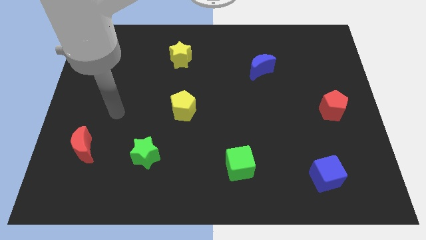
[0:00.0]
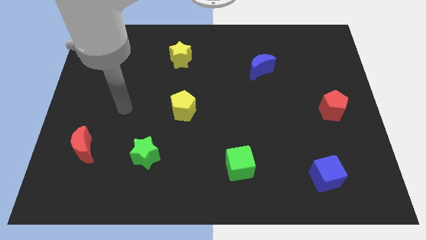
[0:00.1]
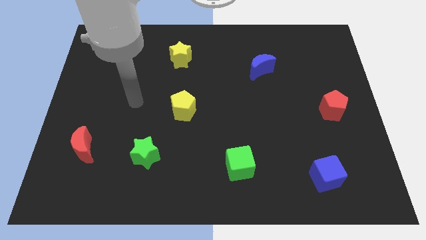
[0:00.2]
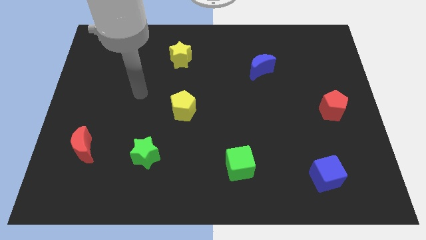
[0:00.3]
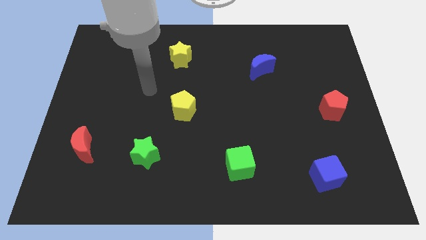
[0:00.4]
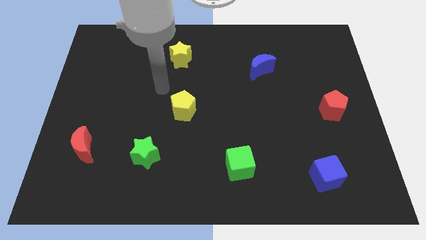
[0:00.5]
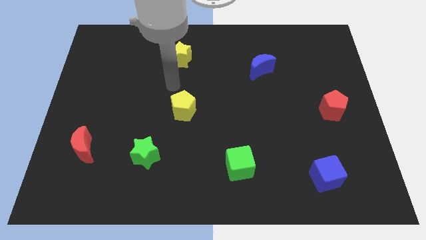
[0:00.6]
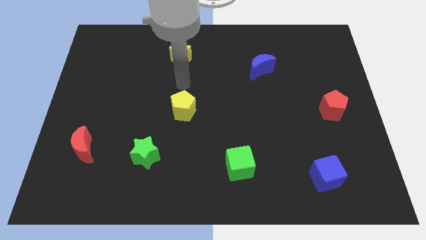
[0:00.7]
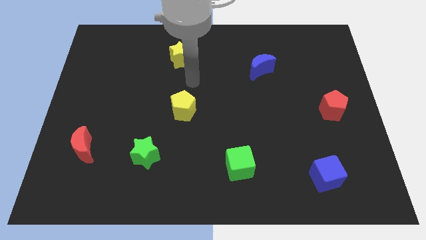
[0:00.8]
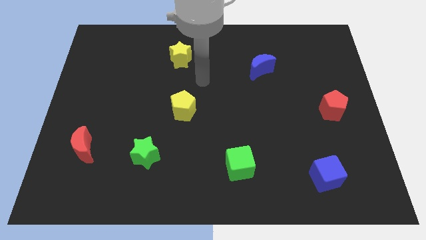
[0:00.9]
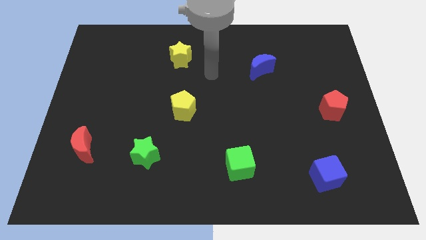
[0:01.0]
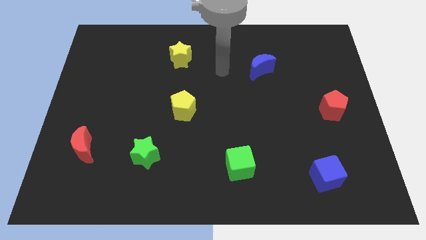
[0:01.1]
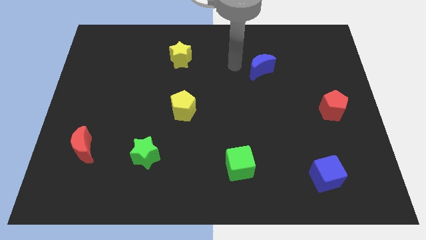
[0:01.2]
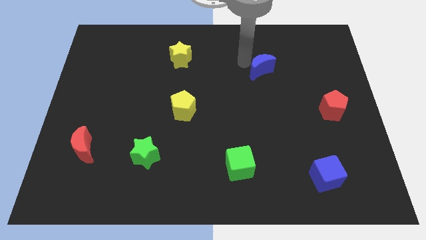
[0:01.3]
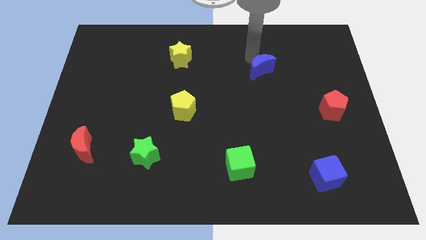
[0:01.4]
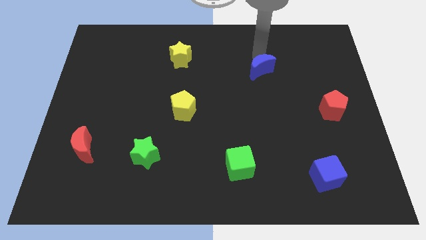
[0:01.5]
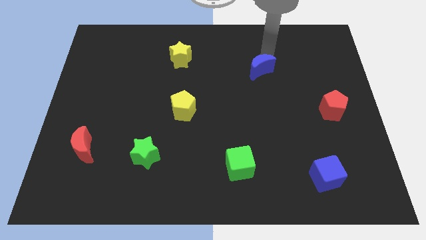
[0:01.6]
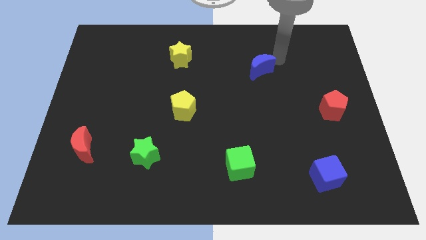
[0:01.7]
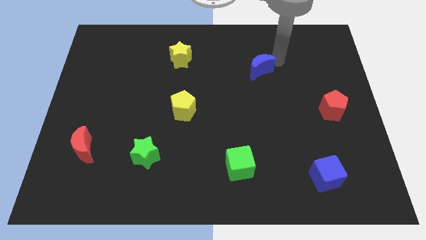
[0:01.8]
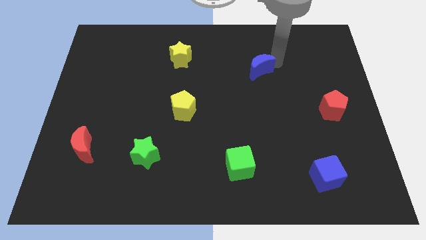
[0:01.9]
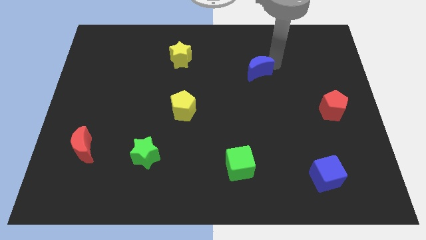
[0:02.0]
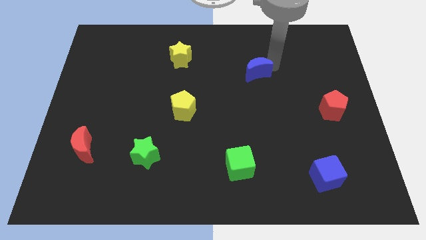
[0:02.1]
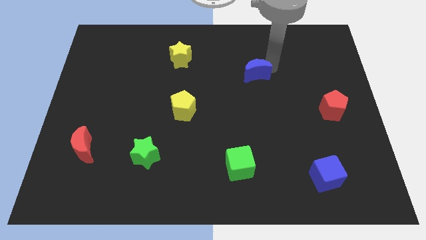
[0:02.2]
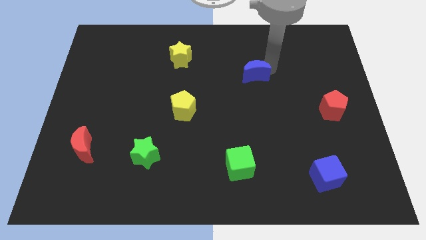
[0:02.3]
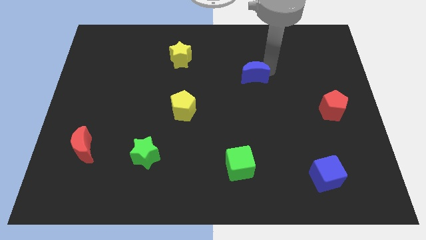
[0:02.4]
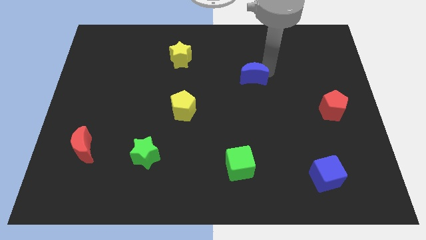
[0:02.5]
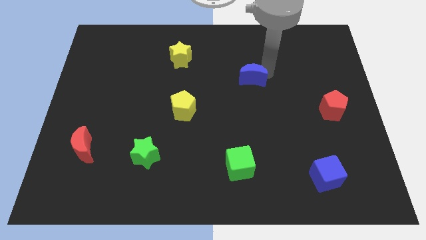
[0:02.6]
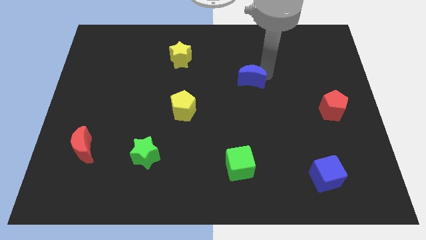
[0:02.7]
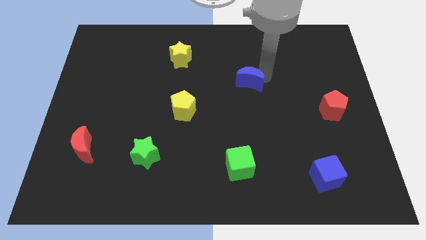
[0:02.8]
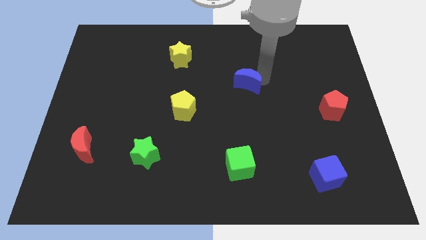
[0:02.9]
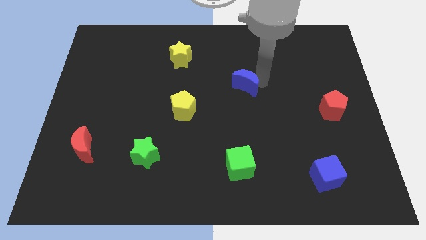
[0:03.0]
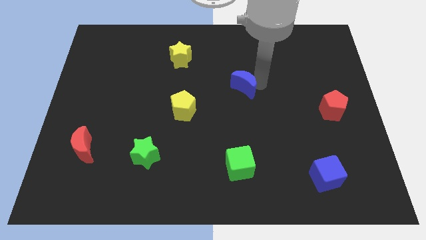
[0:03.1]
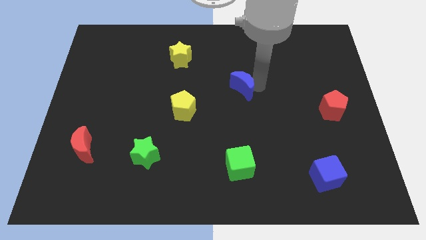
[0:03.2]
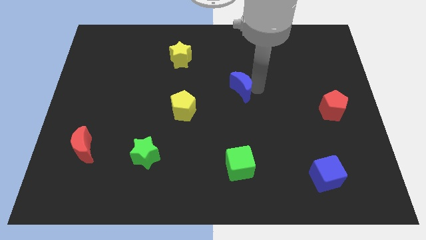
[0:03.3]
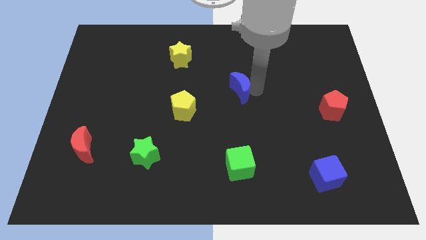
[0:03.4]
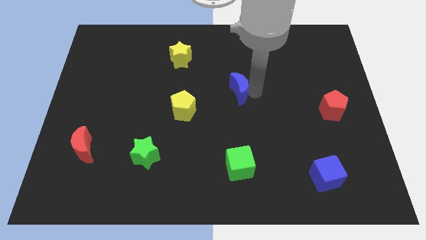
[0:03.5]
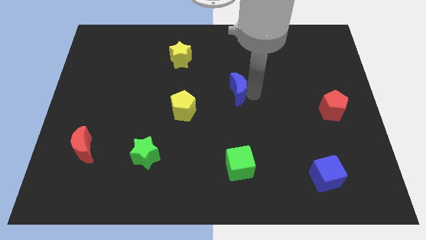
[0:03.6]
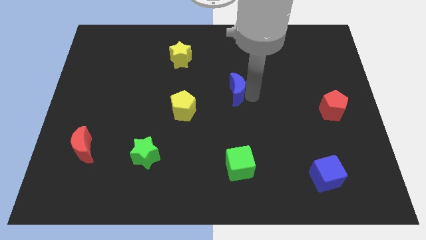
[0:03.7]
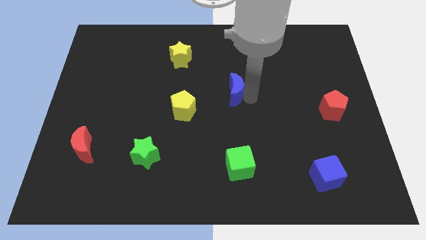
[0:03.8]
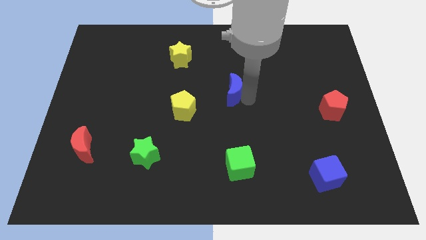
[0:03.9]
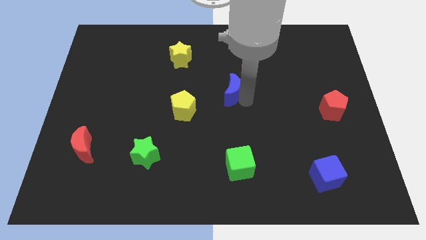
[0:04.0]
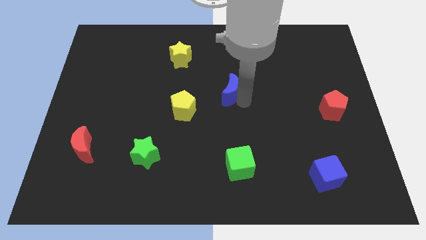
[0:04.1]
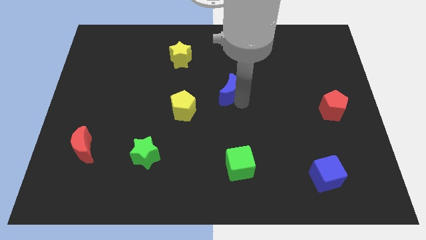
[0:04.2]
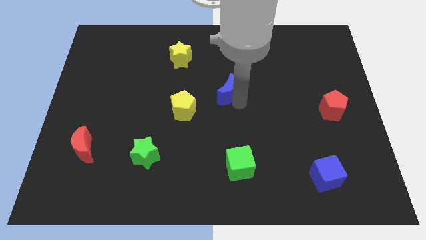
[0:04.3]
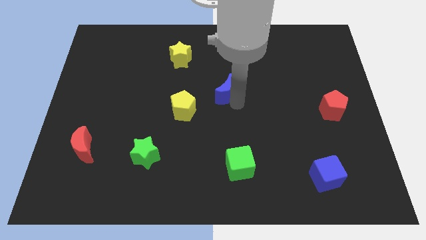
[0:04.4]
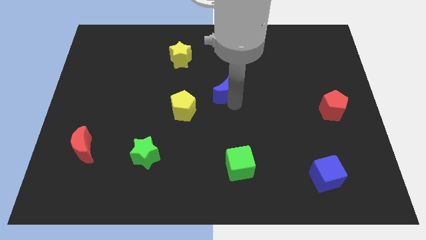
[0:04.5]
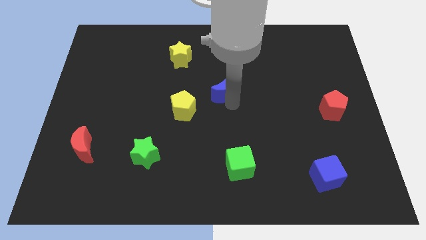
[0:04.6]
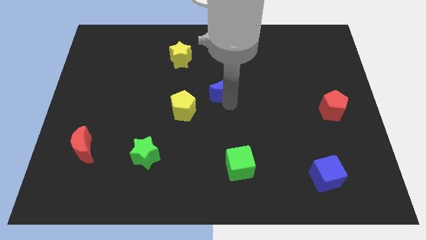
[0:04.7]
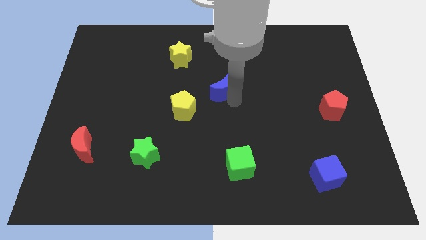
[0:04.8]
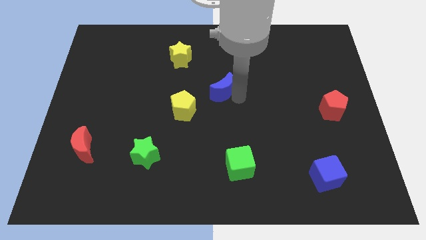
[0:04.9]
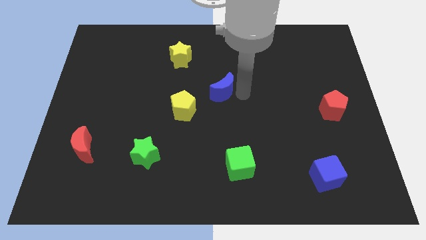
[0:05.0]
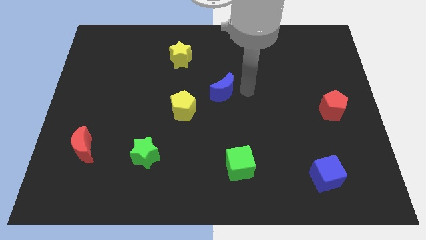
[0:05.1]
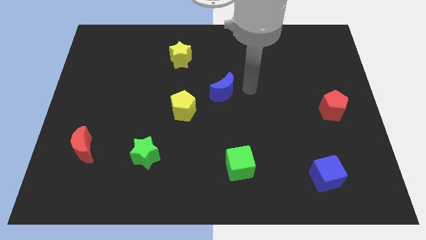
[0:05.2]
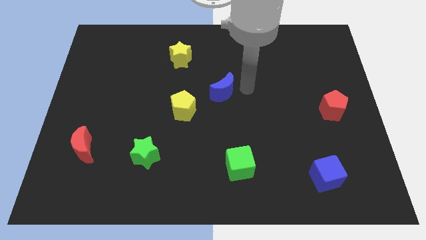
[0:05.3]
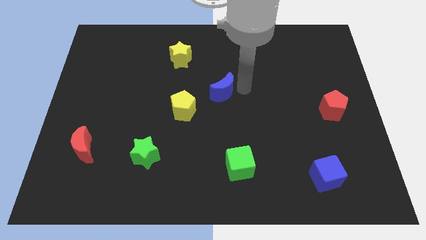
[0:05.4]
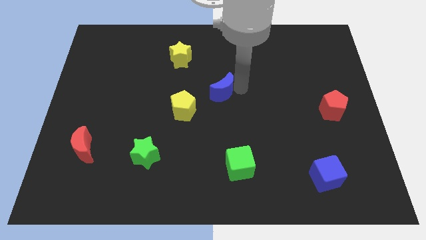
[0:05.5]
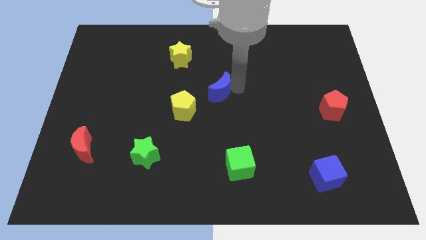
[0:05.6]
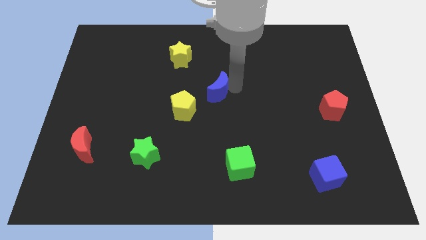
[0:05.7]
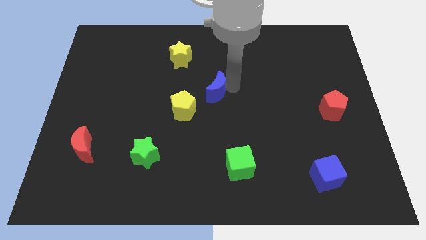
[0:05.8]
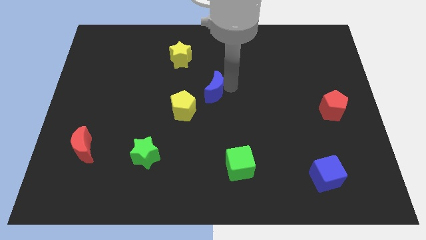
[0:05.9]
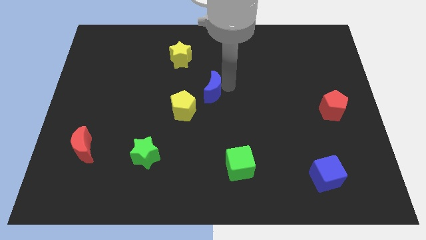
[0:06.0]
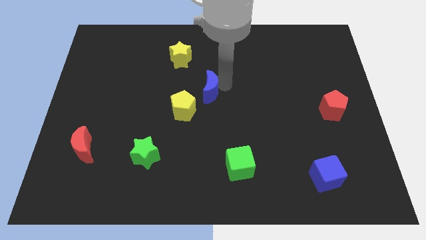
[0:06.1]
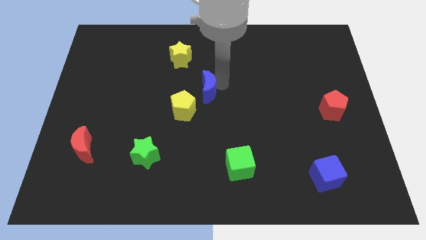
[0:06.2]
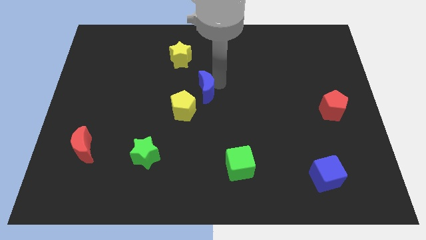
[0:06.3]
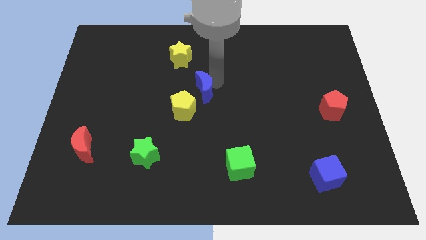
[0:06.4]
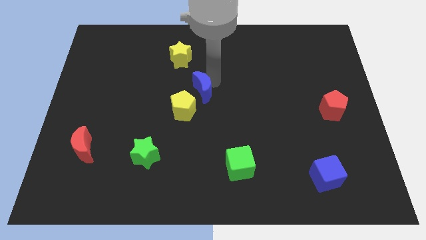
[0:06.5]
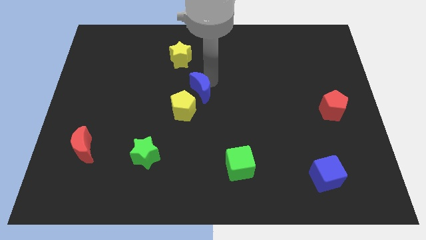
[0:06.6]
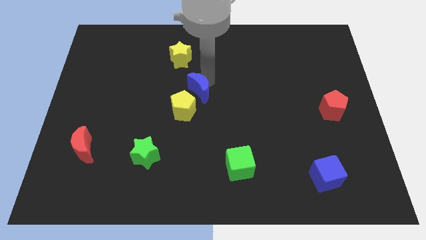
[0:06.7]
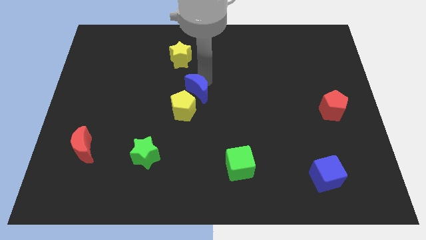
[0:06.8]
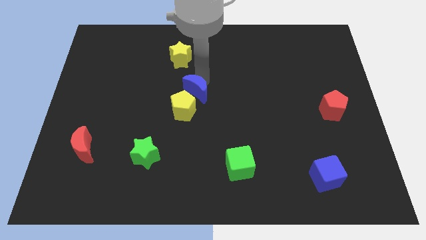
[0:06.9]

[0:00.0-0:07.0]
slide the blue moon to the yellow pentagon
